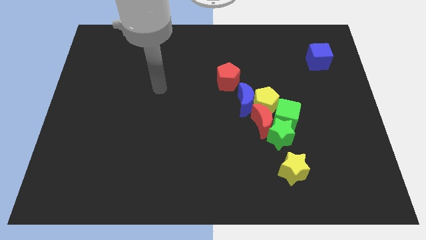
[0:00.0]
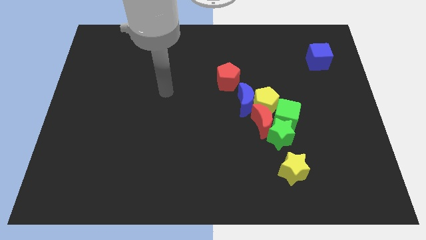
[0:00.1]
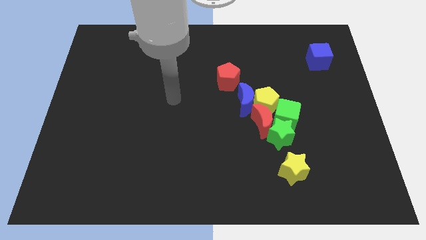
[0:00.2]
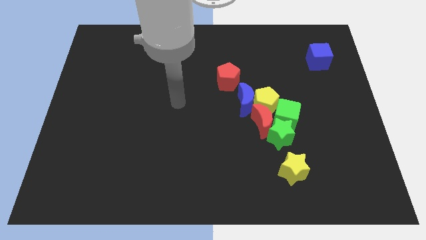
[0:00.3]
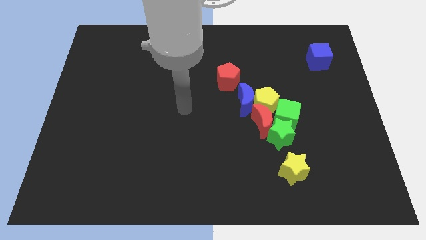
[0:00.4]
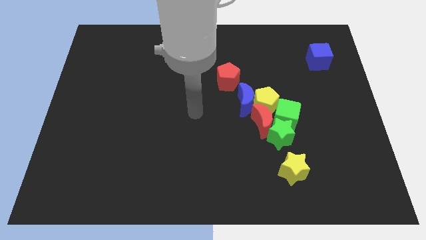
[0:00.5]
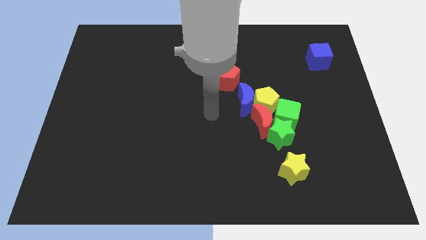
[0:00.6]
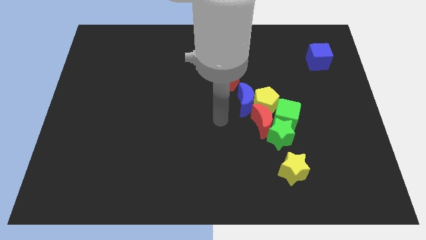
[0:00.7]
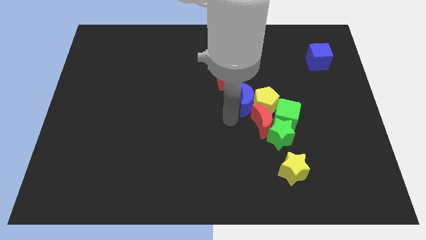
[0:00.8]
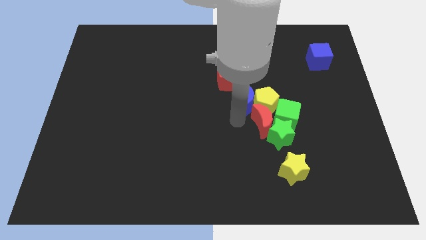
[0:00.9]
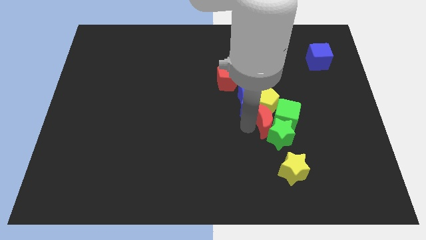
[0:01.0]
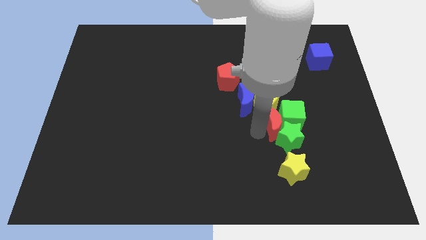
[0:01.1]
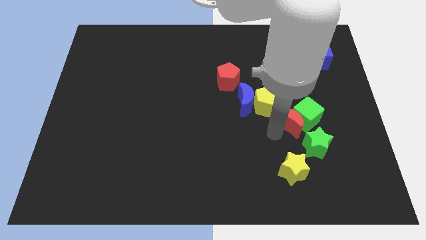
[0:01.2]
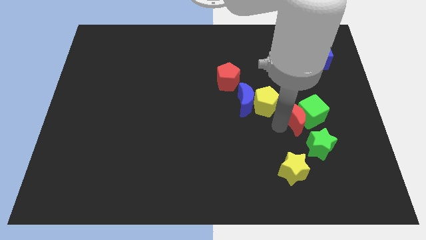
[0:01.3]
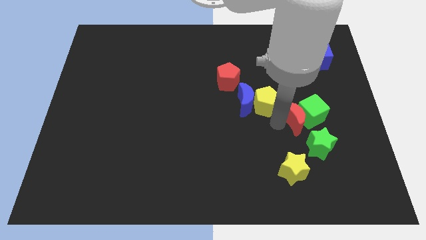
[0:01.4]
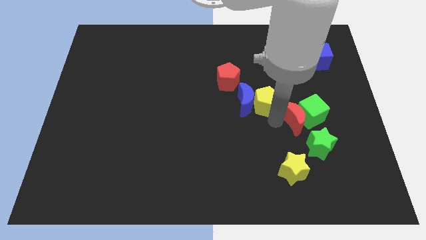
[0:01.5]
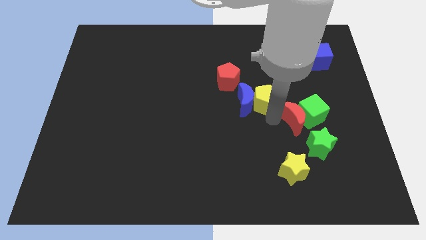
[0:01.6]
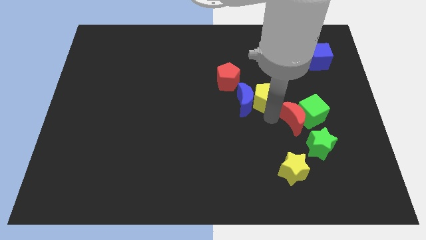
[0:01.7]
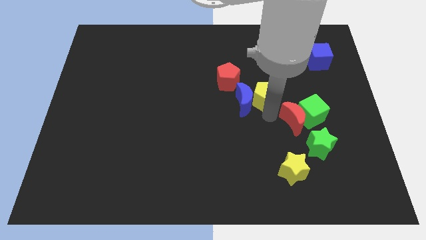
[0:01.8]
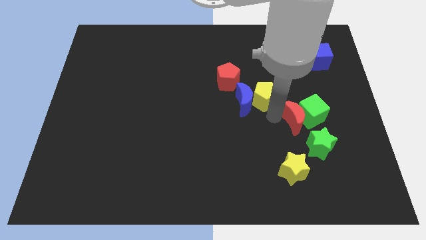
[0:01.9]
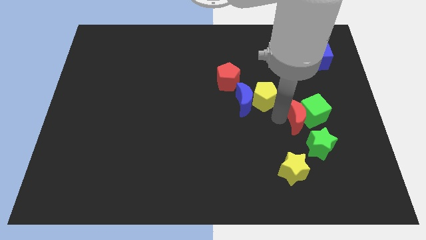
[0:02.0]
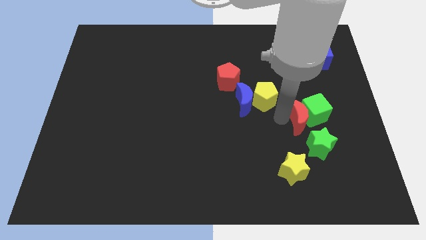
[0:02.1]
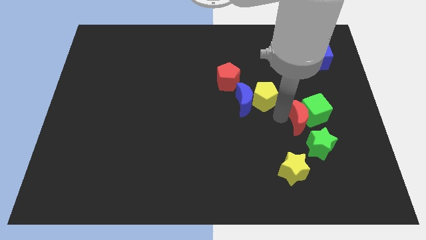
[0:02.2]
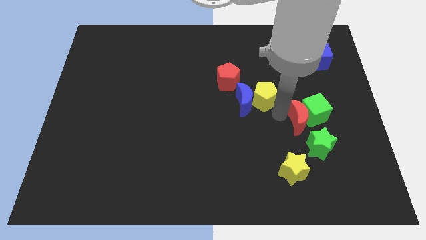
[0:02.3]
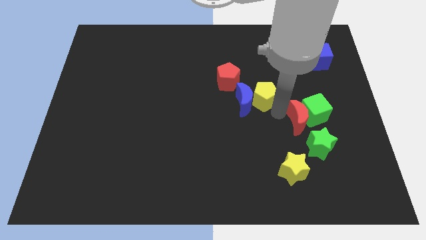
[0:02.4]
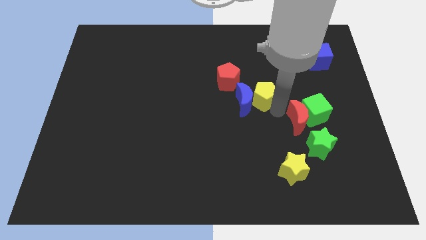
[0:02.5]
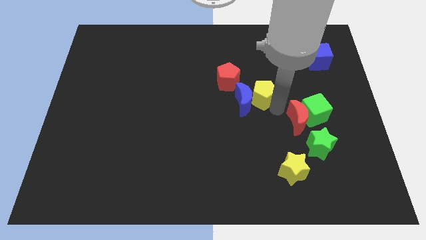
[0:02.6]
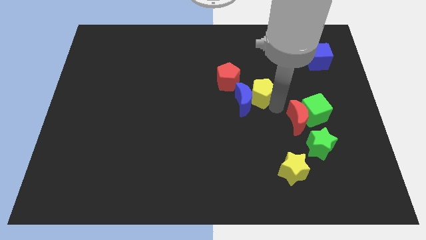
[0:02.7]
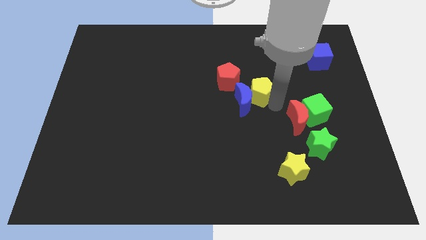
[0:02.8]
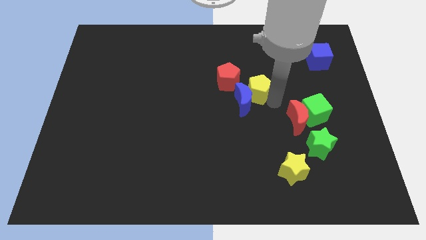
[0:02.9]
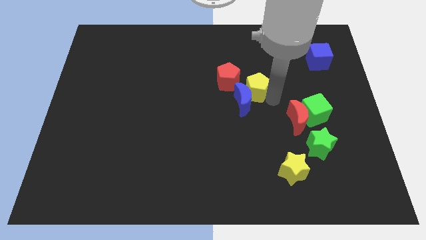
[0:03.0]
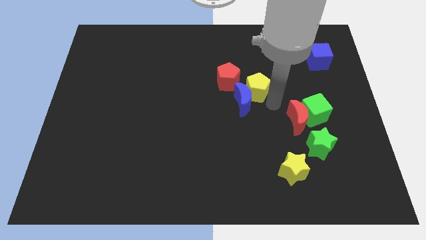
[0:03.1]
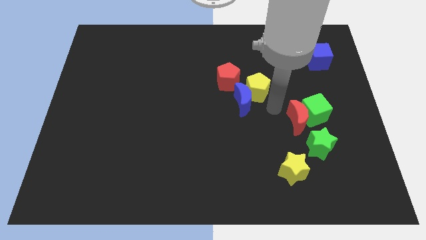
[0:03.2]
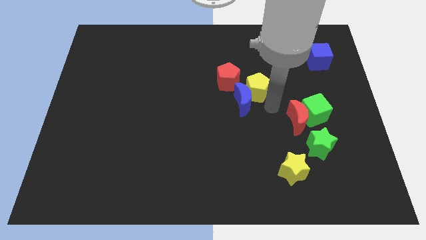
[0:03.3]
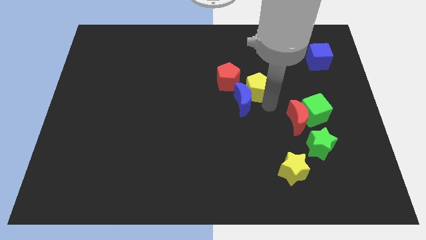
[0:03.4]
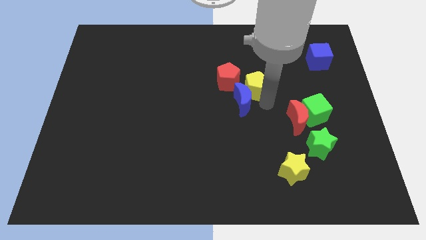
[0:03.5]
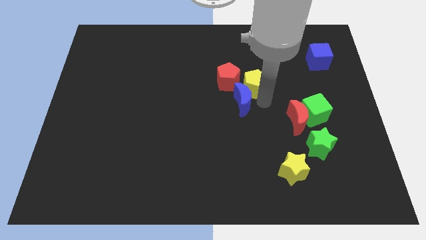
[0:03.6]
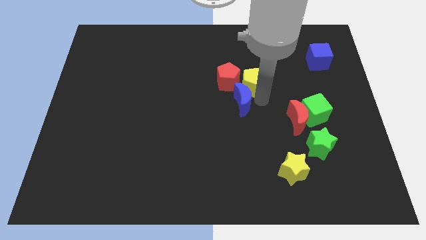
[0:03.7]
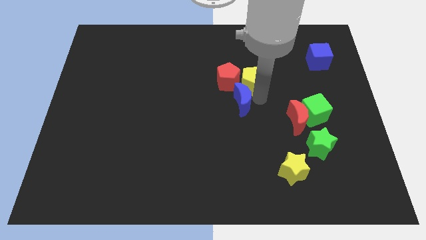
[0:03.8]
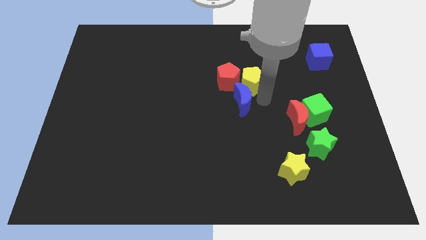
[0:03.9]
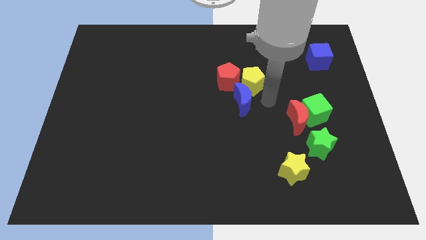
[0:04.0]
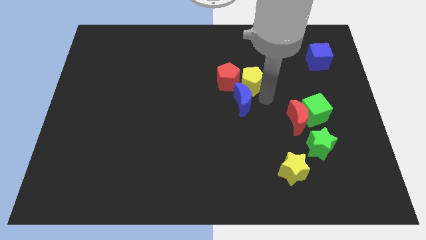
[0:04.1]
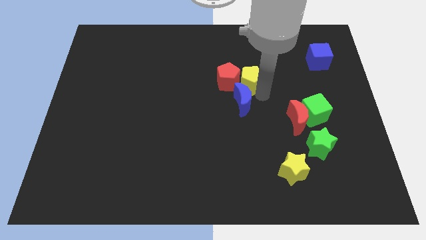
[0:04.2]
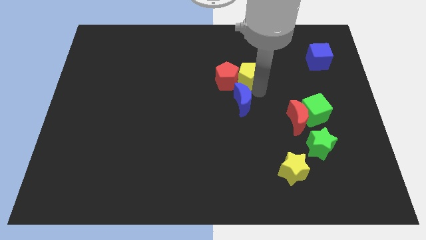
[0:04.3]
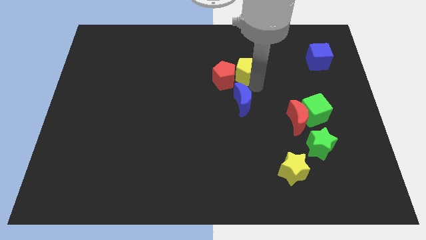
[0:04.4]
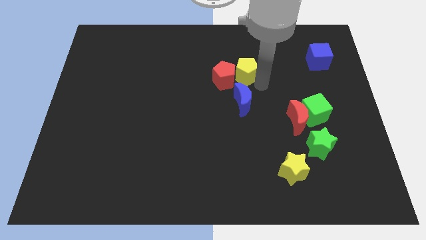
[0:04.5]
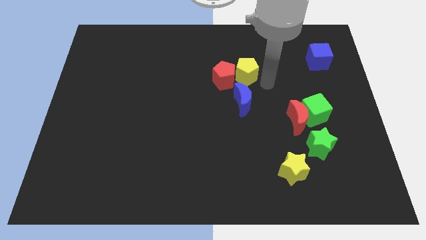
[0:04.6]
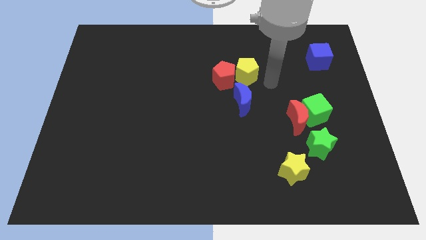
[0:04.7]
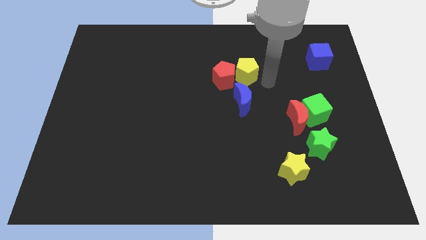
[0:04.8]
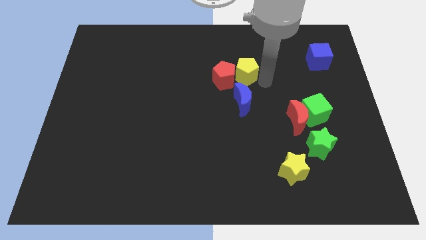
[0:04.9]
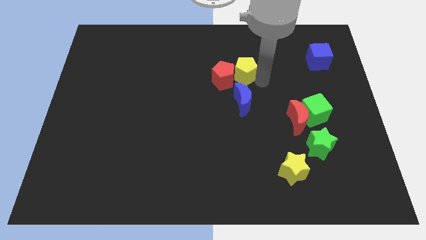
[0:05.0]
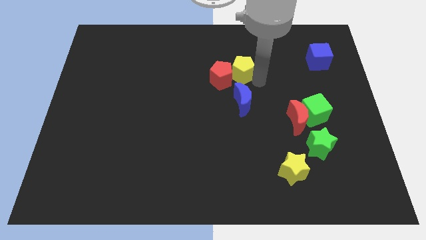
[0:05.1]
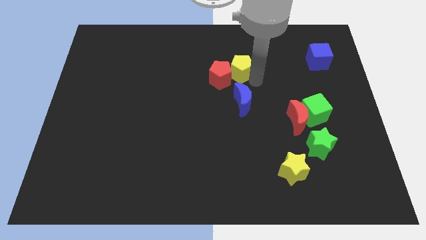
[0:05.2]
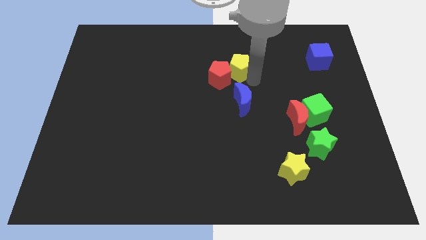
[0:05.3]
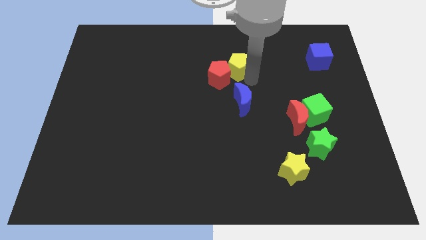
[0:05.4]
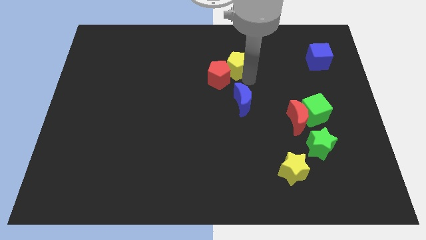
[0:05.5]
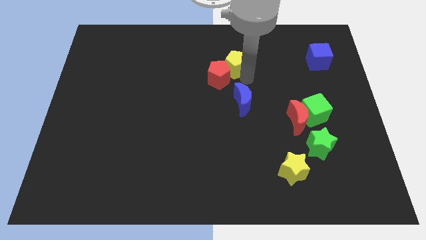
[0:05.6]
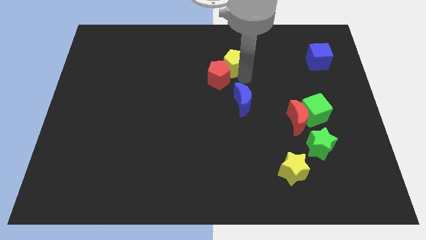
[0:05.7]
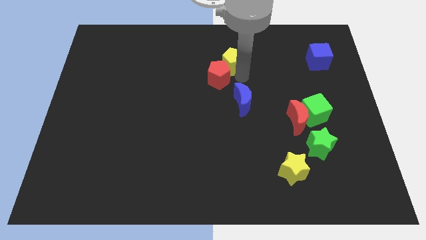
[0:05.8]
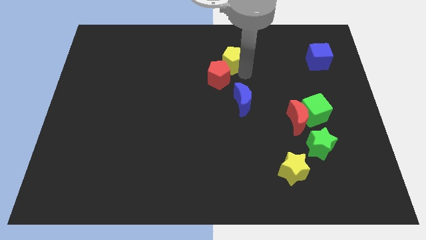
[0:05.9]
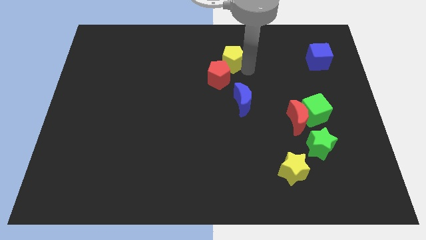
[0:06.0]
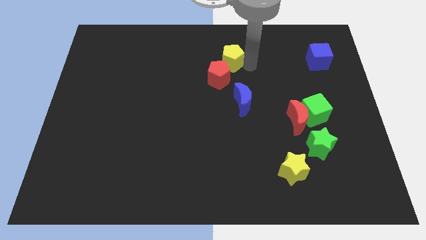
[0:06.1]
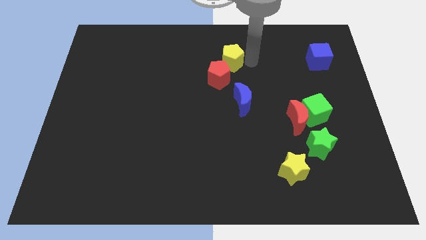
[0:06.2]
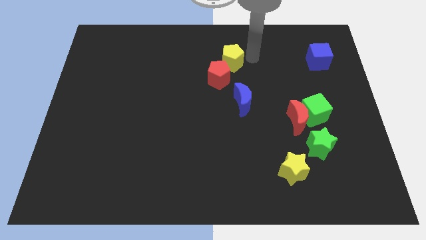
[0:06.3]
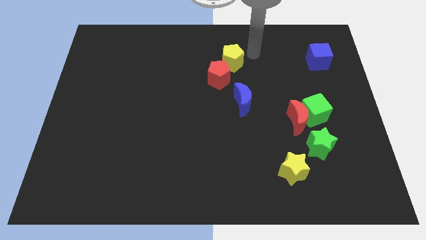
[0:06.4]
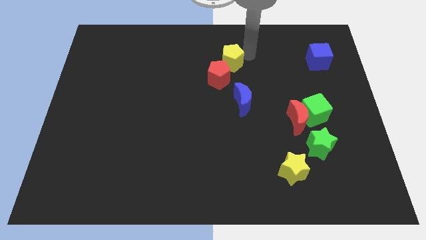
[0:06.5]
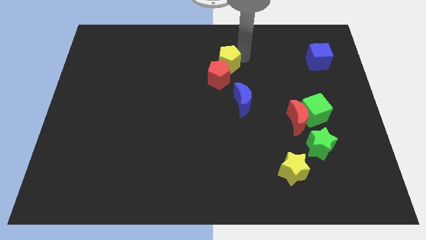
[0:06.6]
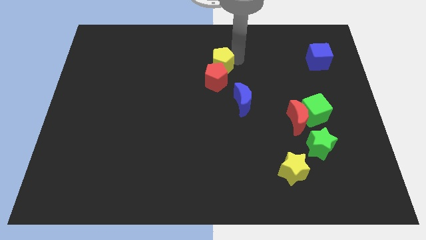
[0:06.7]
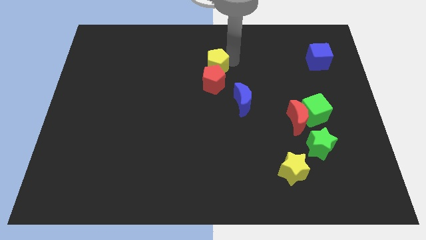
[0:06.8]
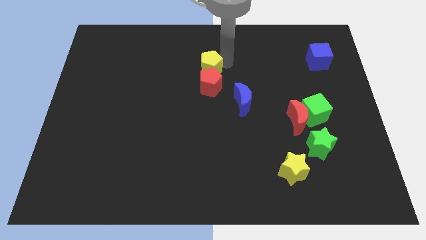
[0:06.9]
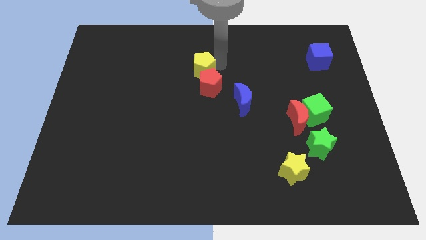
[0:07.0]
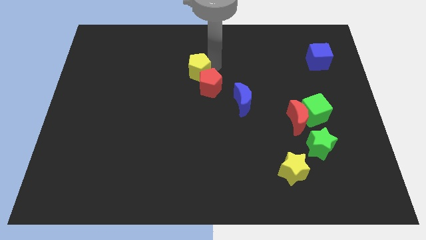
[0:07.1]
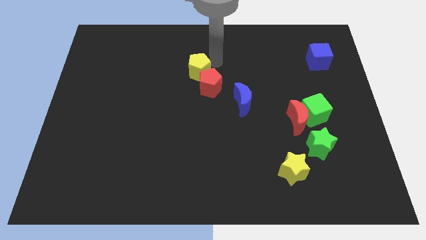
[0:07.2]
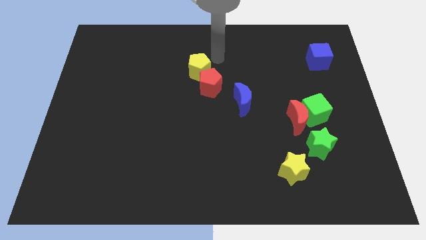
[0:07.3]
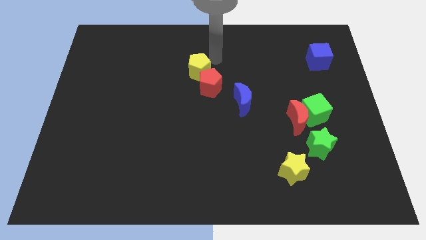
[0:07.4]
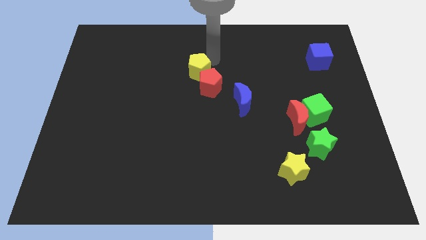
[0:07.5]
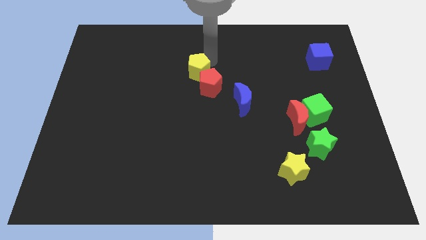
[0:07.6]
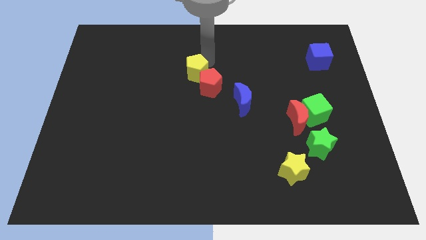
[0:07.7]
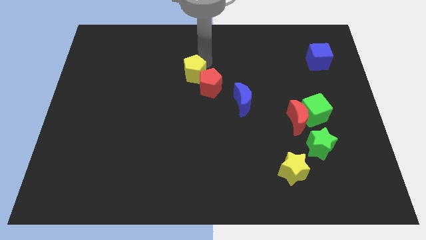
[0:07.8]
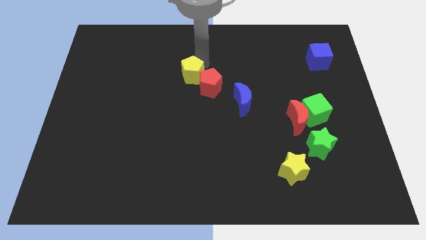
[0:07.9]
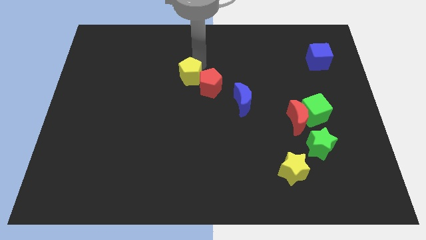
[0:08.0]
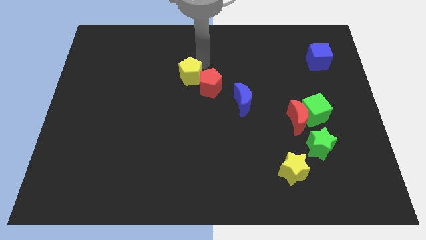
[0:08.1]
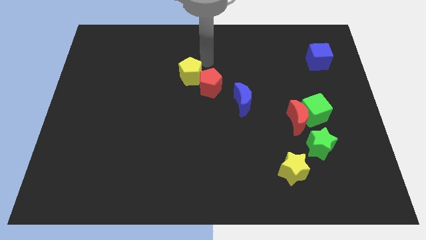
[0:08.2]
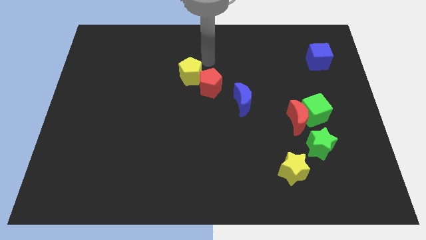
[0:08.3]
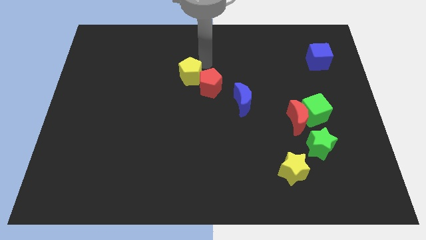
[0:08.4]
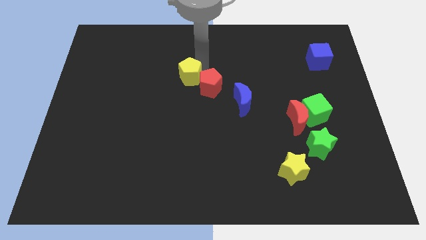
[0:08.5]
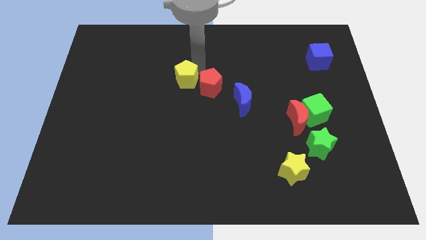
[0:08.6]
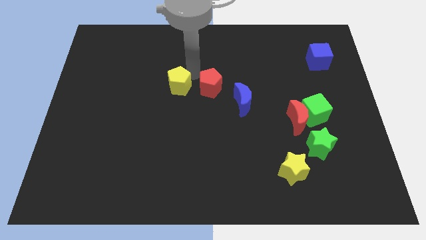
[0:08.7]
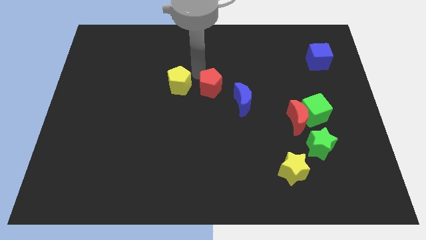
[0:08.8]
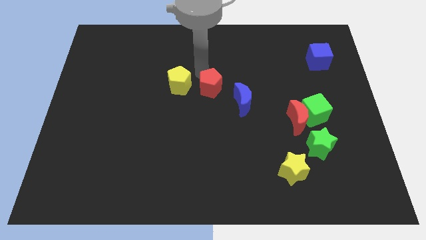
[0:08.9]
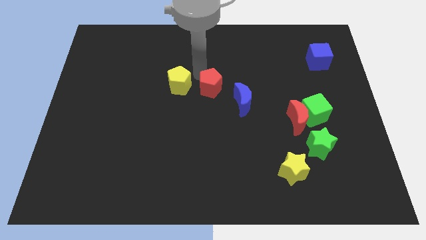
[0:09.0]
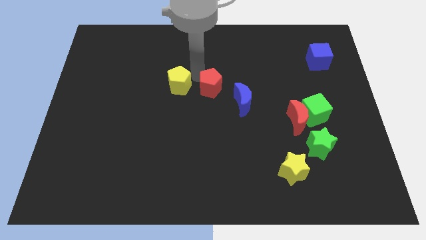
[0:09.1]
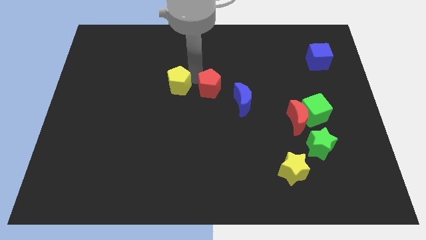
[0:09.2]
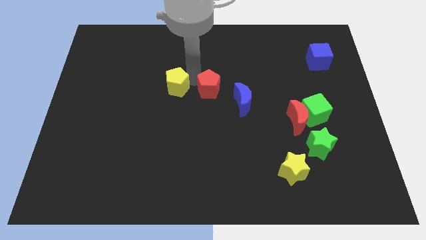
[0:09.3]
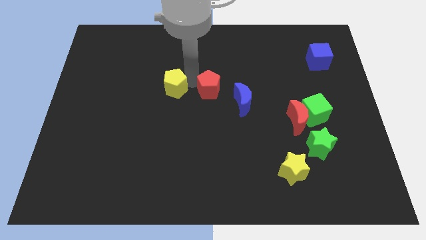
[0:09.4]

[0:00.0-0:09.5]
push the yellow pentagon left
